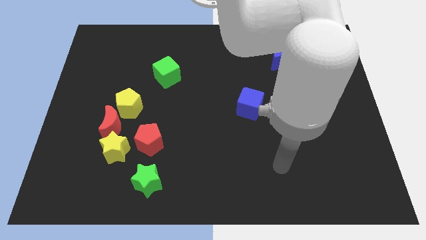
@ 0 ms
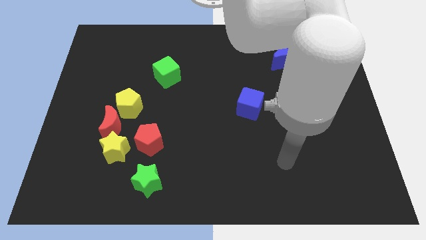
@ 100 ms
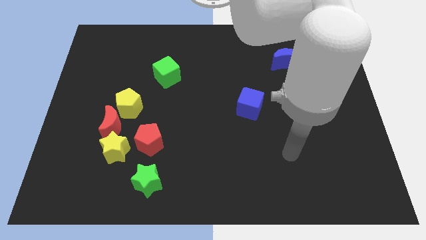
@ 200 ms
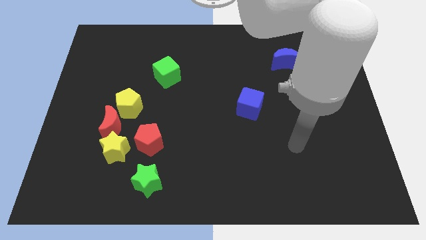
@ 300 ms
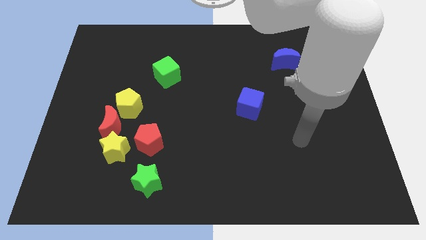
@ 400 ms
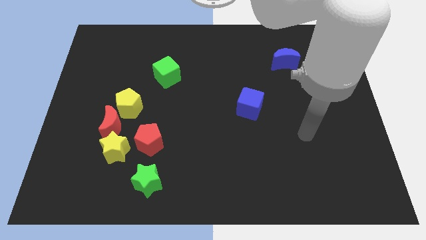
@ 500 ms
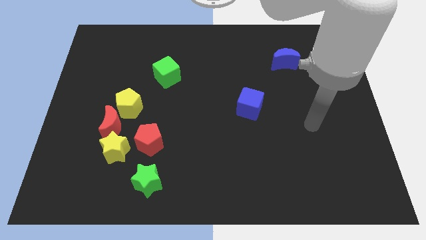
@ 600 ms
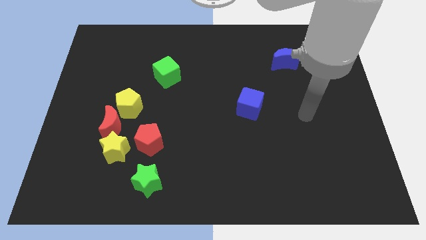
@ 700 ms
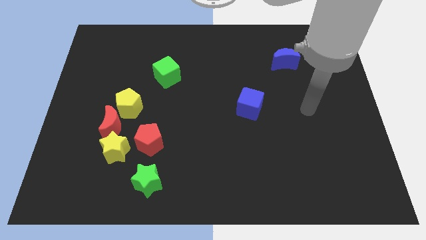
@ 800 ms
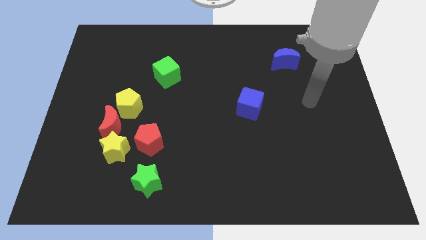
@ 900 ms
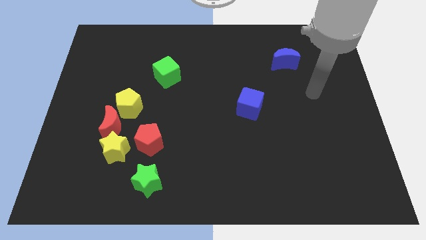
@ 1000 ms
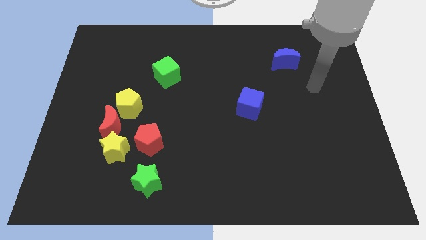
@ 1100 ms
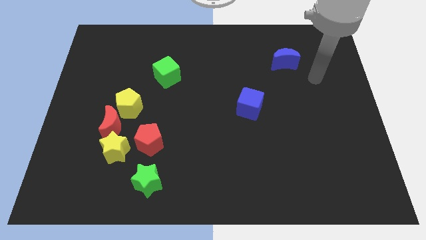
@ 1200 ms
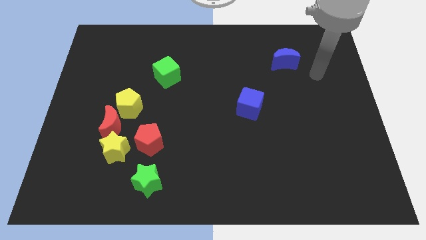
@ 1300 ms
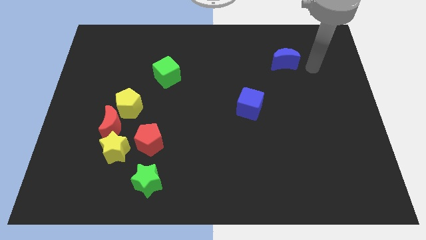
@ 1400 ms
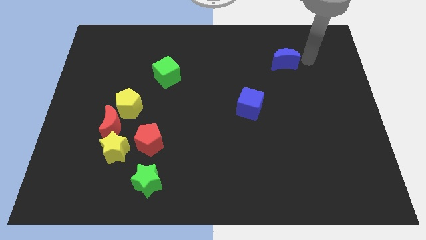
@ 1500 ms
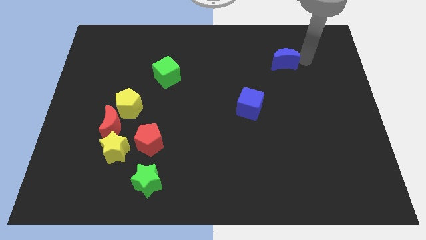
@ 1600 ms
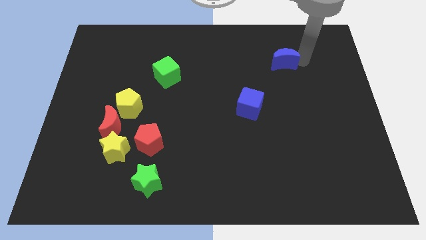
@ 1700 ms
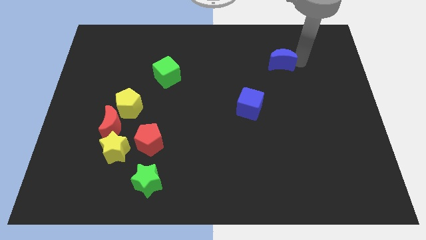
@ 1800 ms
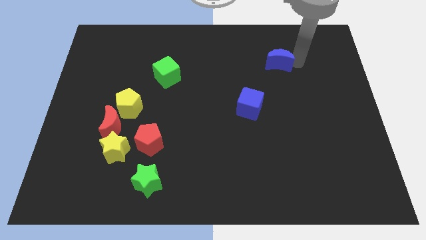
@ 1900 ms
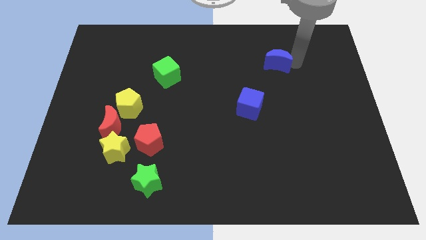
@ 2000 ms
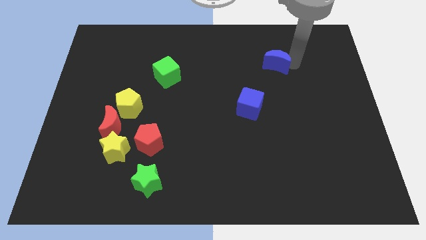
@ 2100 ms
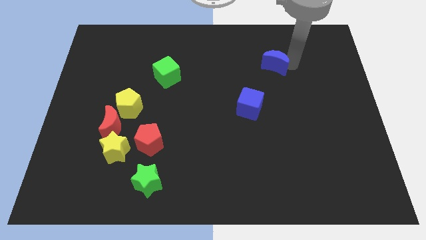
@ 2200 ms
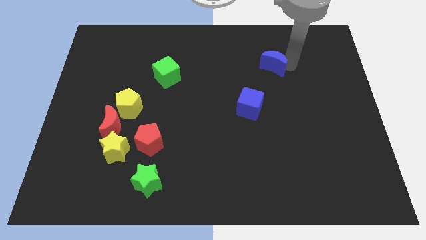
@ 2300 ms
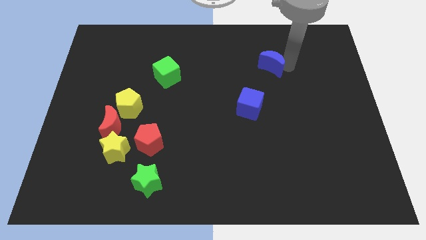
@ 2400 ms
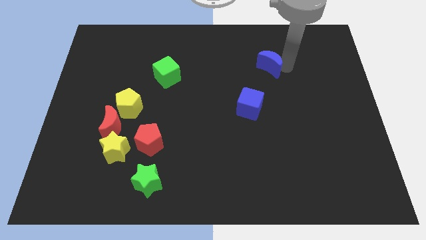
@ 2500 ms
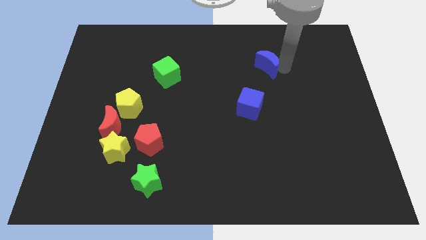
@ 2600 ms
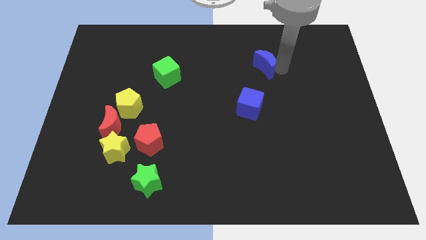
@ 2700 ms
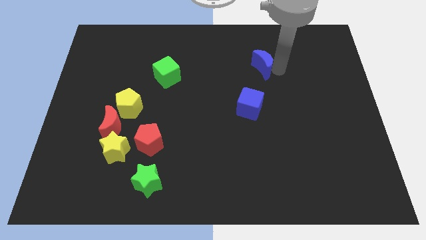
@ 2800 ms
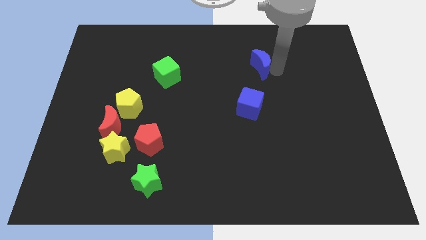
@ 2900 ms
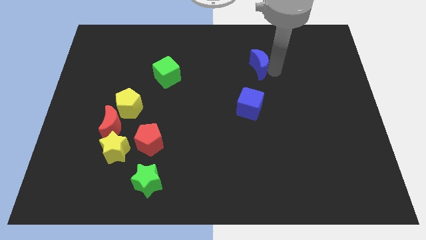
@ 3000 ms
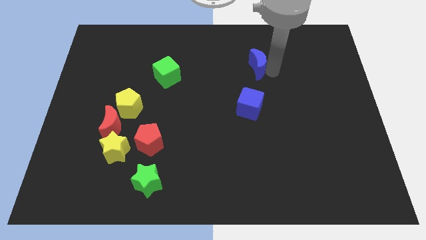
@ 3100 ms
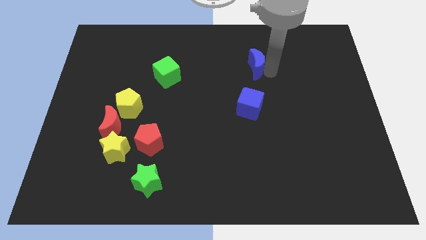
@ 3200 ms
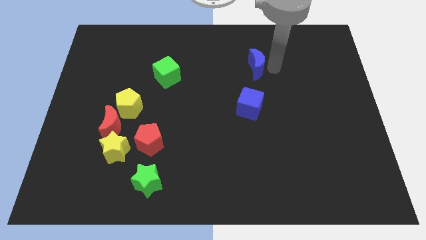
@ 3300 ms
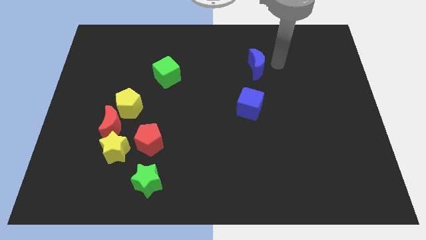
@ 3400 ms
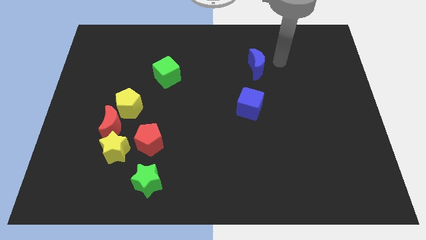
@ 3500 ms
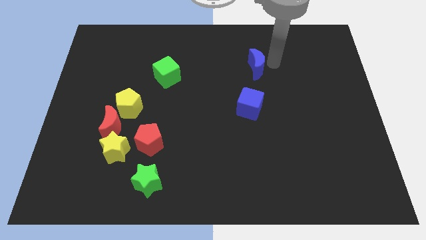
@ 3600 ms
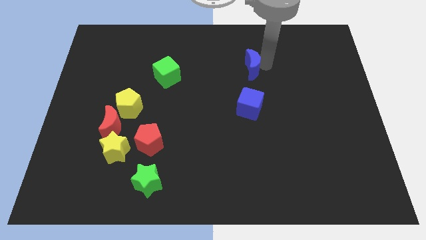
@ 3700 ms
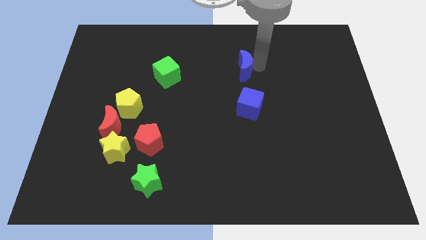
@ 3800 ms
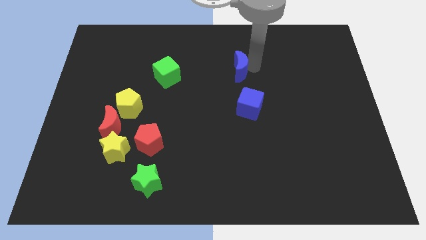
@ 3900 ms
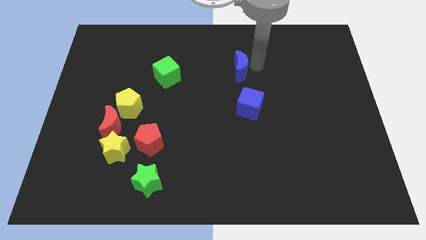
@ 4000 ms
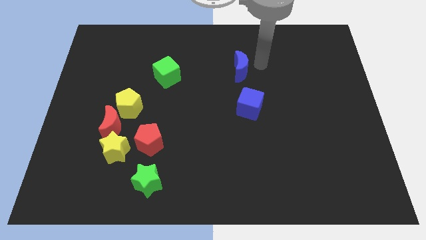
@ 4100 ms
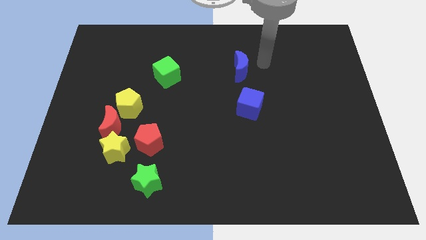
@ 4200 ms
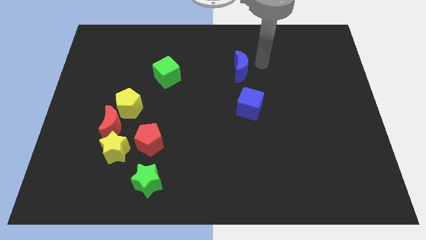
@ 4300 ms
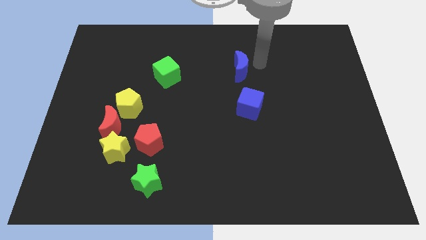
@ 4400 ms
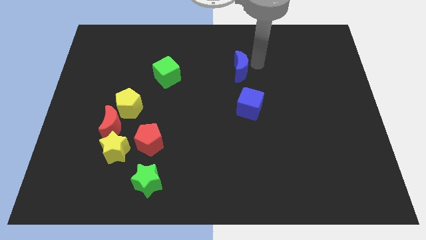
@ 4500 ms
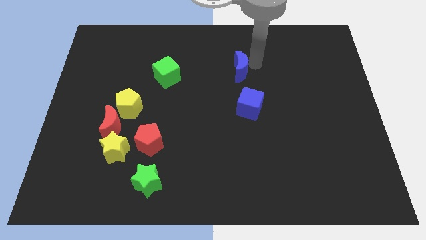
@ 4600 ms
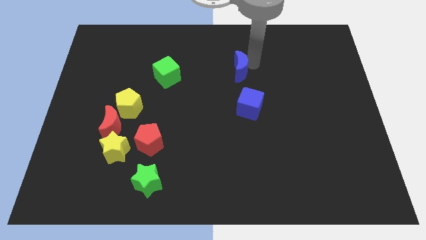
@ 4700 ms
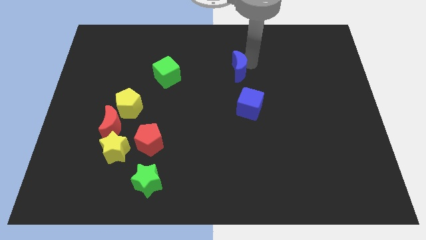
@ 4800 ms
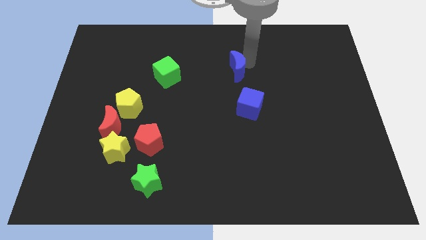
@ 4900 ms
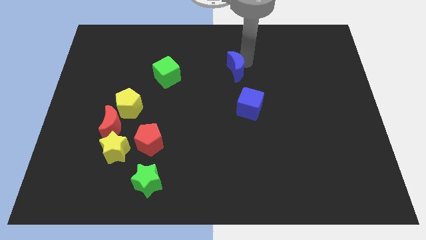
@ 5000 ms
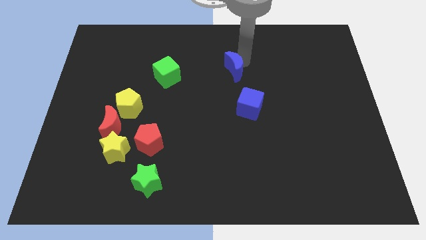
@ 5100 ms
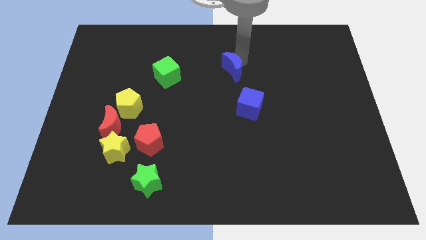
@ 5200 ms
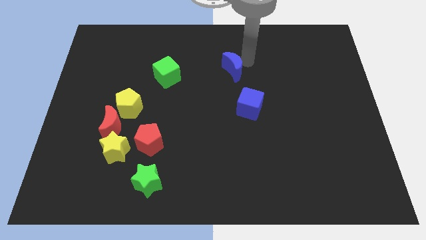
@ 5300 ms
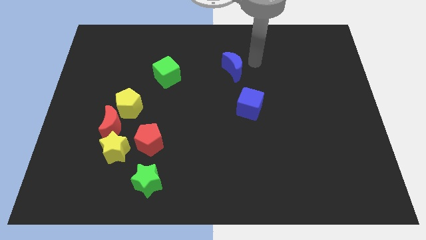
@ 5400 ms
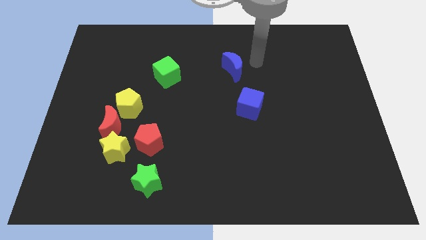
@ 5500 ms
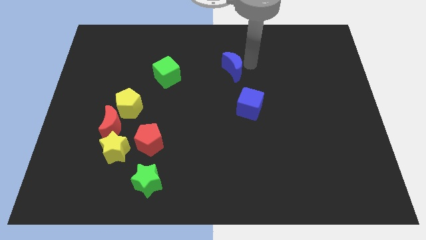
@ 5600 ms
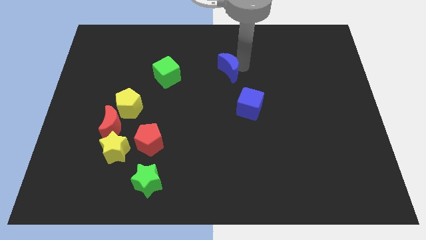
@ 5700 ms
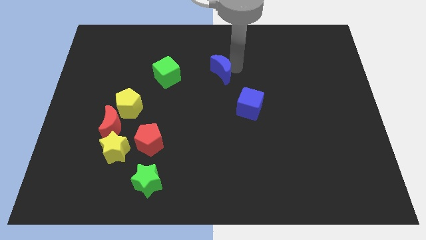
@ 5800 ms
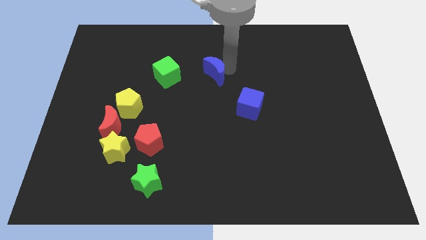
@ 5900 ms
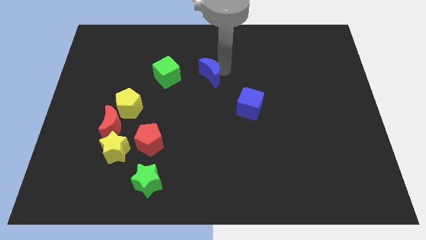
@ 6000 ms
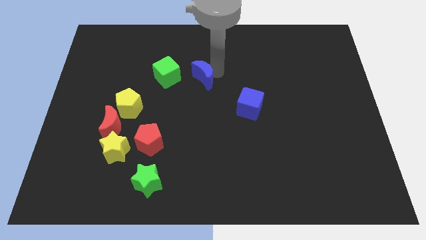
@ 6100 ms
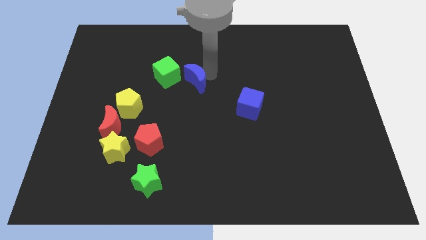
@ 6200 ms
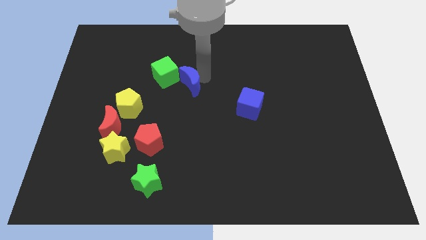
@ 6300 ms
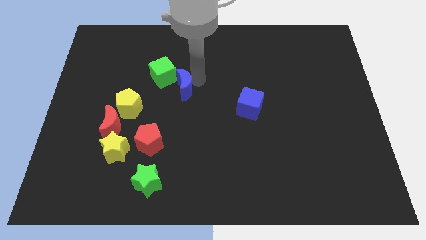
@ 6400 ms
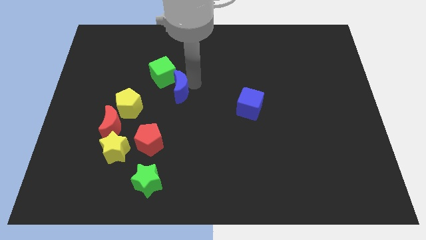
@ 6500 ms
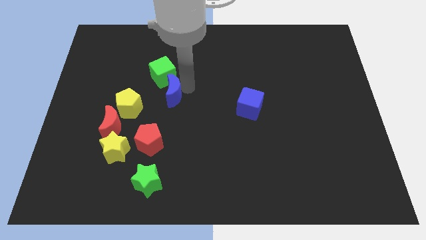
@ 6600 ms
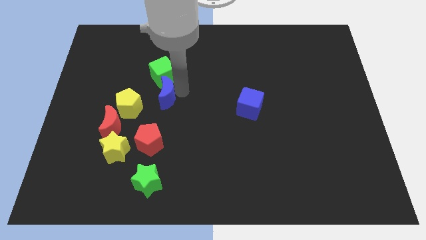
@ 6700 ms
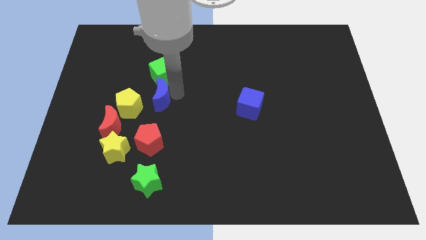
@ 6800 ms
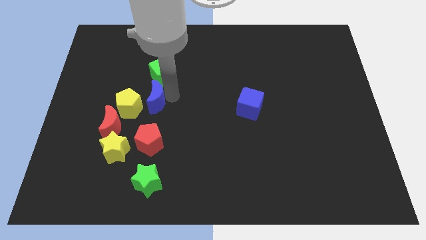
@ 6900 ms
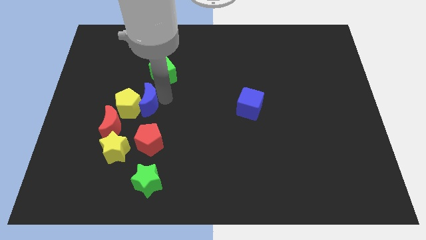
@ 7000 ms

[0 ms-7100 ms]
slide the blue moon next to the yellow pentagon

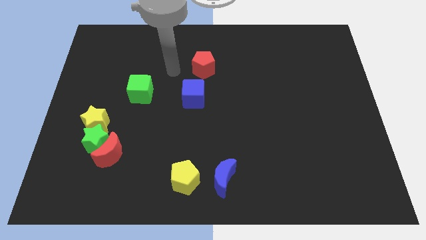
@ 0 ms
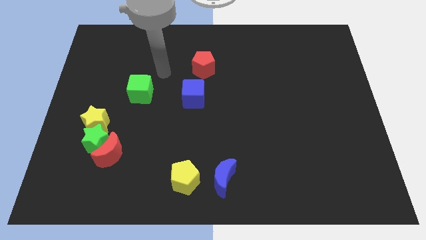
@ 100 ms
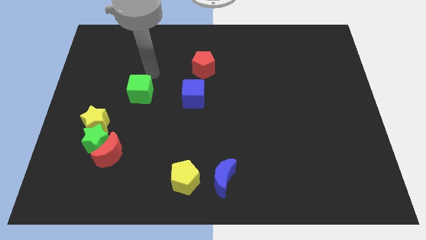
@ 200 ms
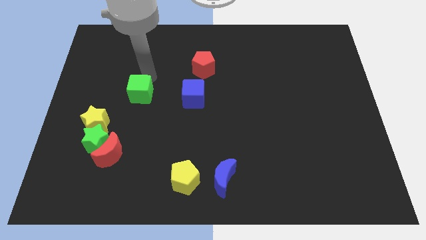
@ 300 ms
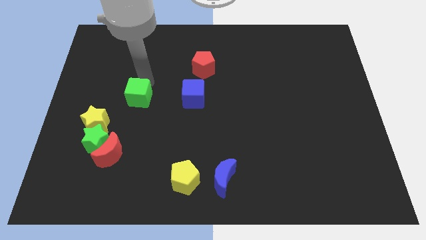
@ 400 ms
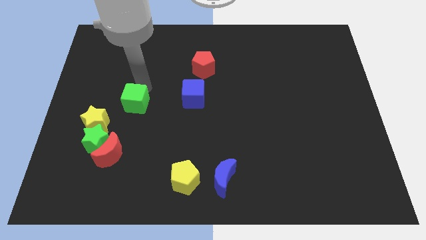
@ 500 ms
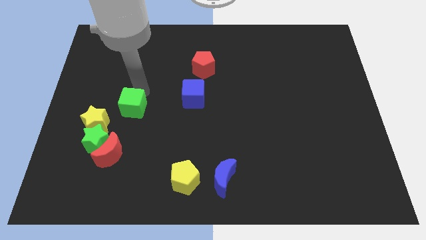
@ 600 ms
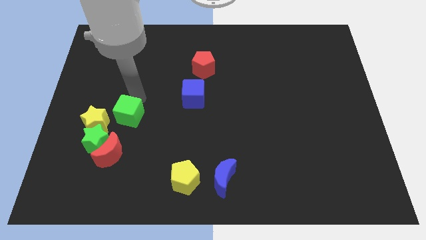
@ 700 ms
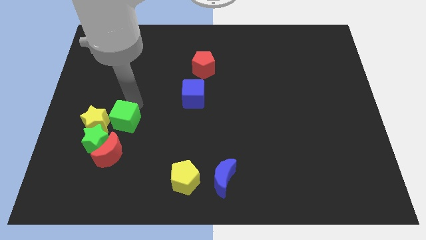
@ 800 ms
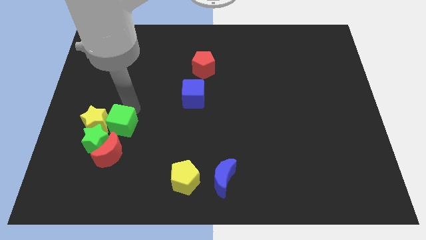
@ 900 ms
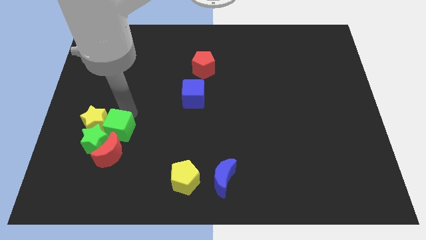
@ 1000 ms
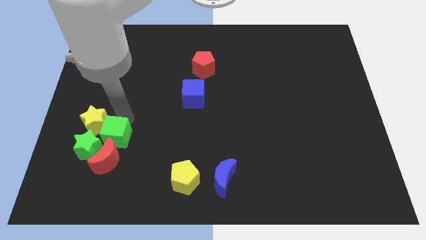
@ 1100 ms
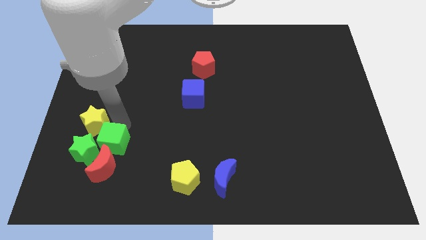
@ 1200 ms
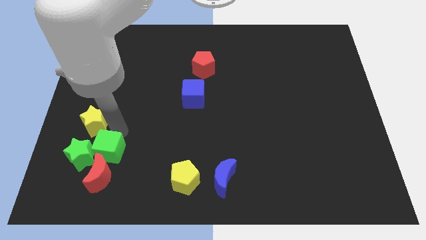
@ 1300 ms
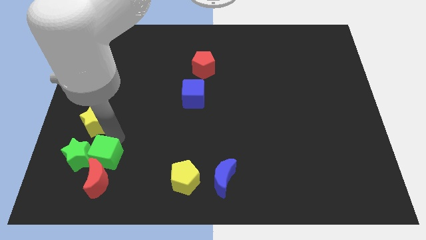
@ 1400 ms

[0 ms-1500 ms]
put the green cube to the red moon
